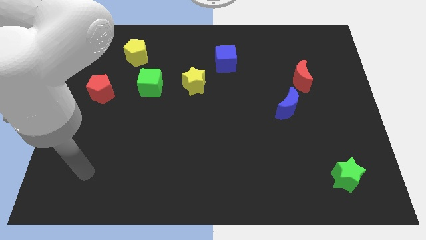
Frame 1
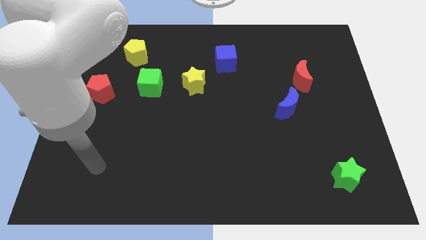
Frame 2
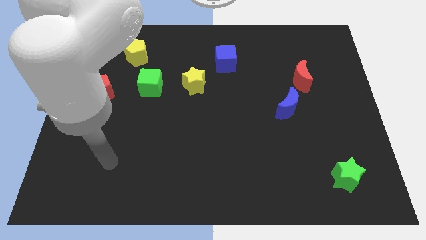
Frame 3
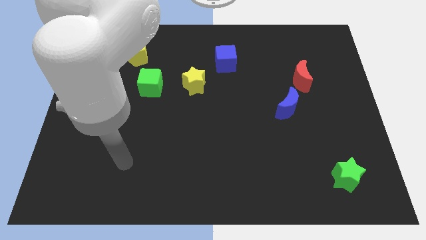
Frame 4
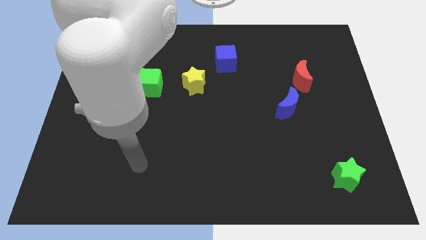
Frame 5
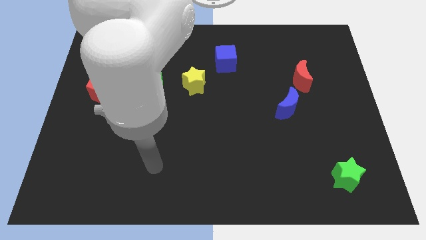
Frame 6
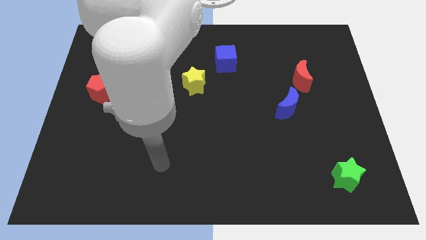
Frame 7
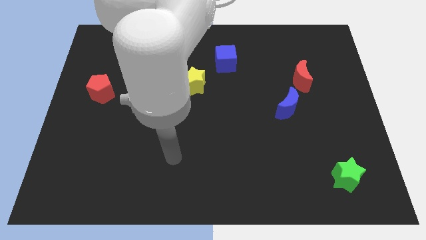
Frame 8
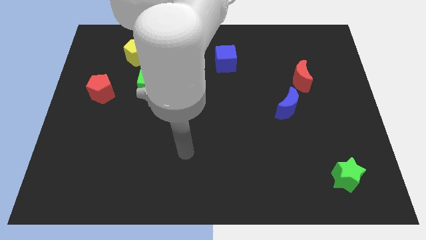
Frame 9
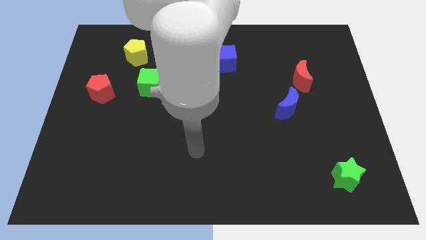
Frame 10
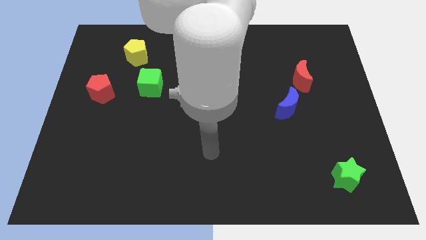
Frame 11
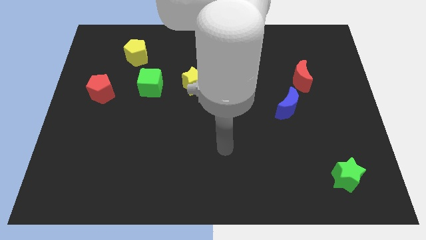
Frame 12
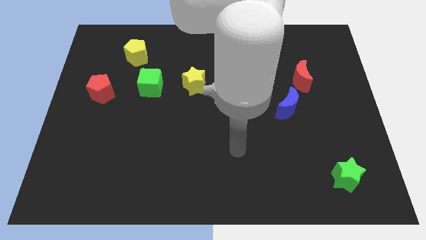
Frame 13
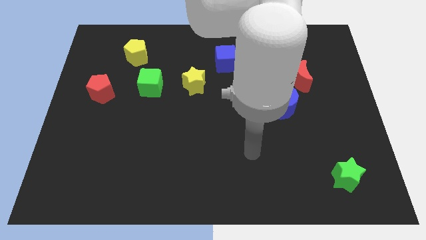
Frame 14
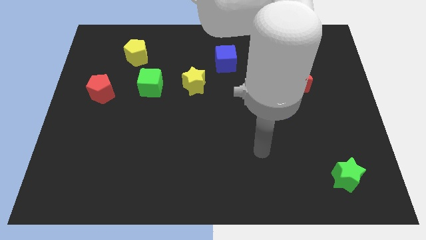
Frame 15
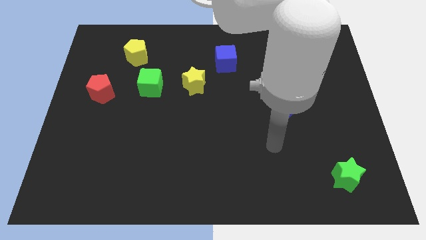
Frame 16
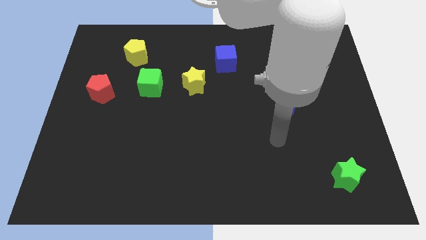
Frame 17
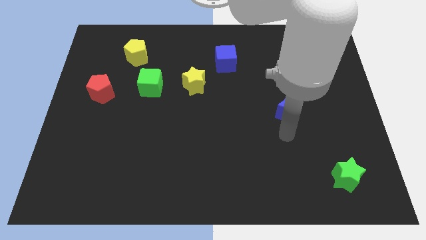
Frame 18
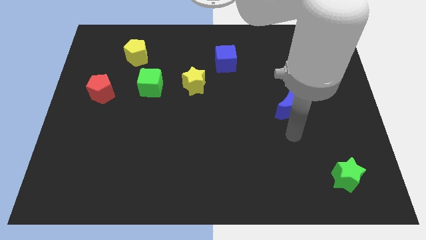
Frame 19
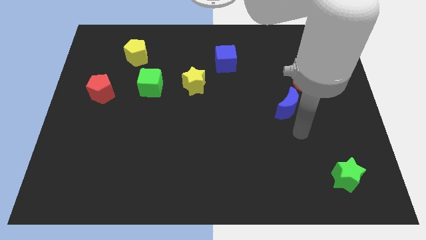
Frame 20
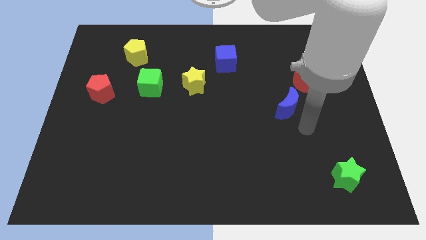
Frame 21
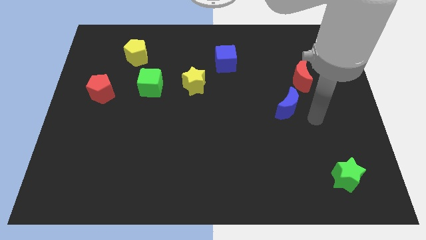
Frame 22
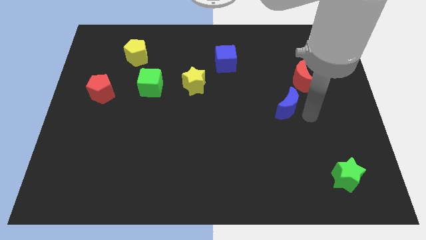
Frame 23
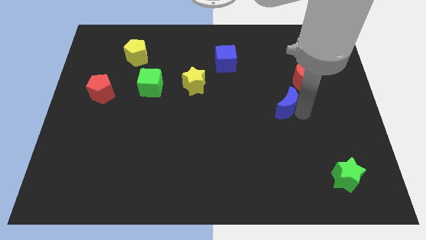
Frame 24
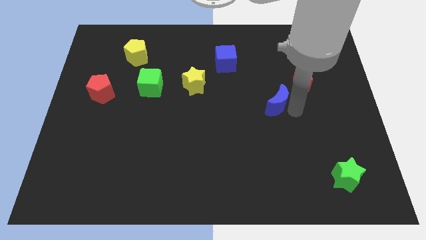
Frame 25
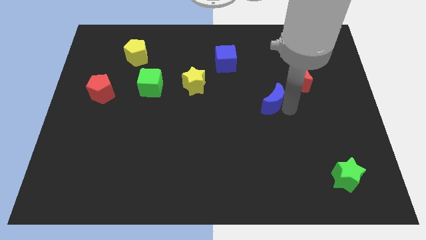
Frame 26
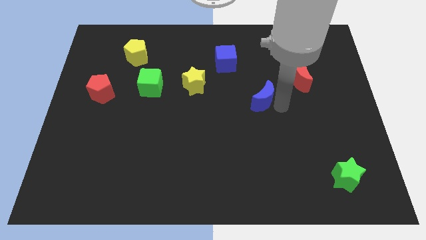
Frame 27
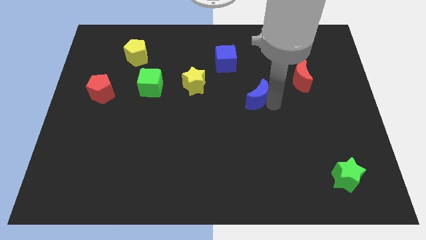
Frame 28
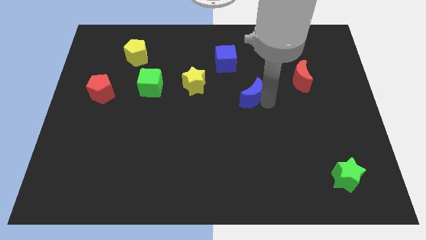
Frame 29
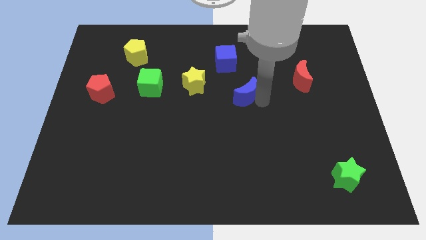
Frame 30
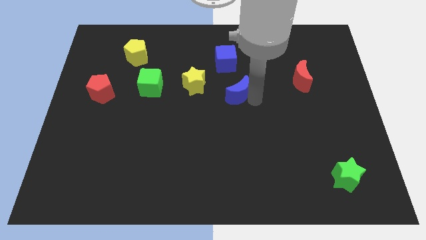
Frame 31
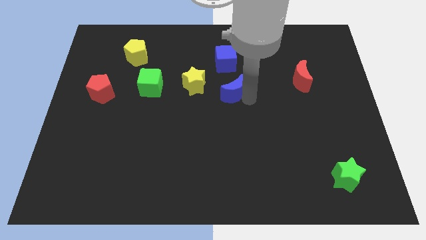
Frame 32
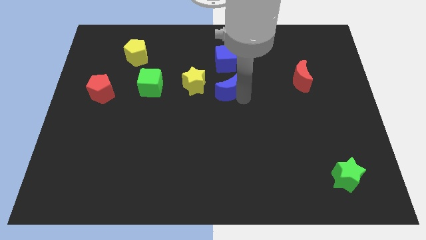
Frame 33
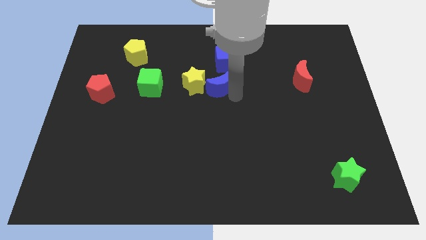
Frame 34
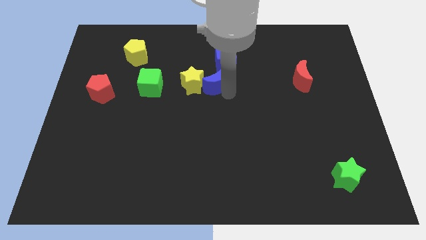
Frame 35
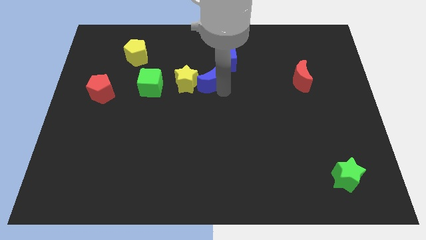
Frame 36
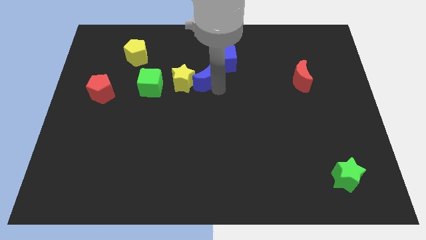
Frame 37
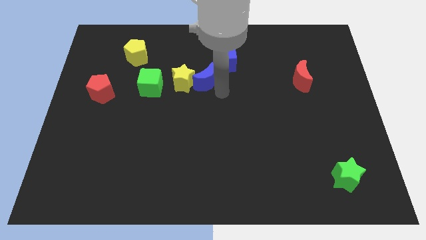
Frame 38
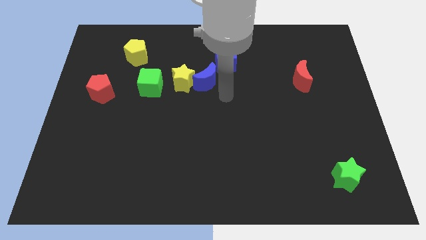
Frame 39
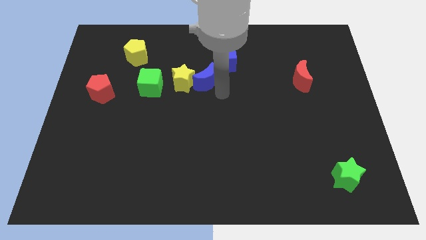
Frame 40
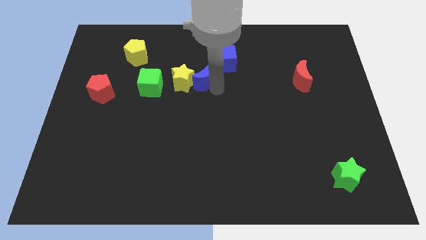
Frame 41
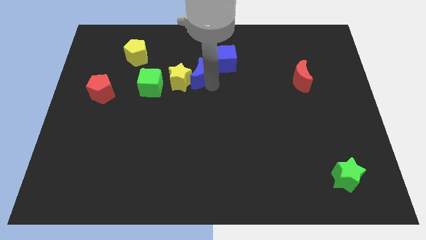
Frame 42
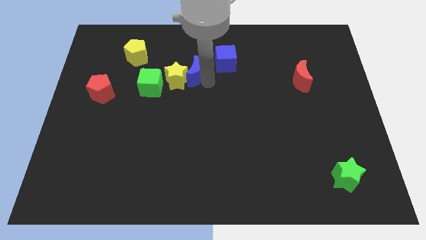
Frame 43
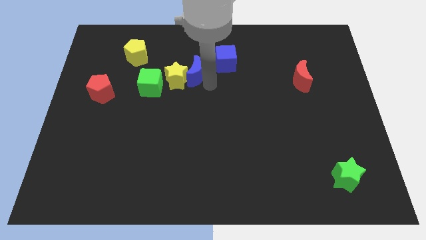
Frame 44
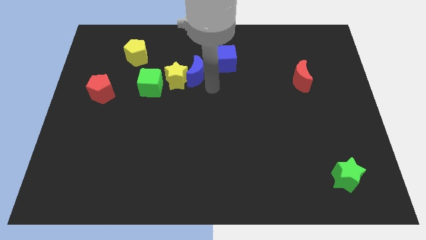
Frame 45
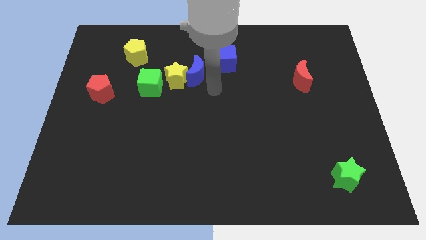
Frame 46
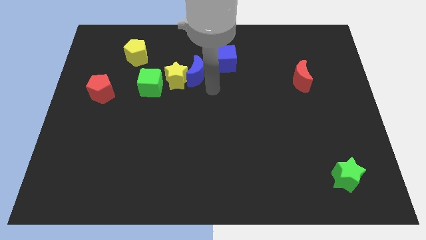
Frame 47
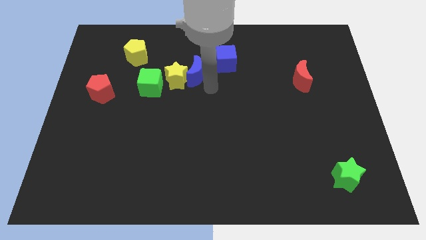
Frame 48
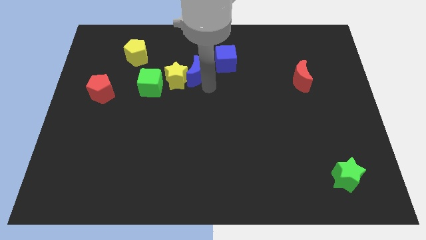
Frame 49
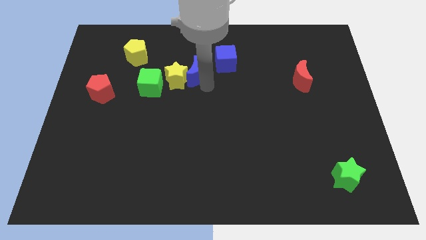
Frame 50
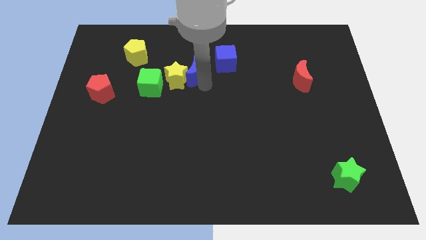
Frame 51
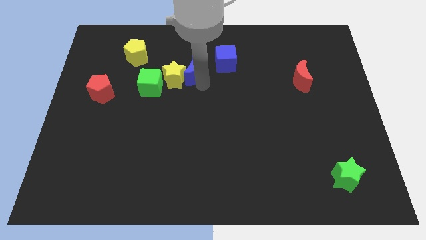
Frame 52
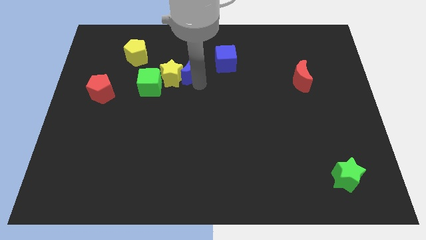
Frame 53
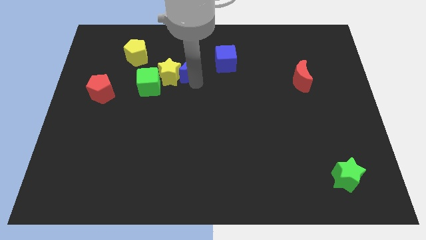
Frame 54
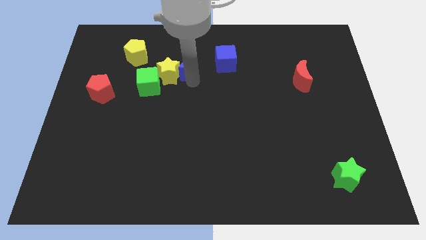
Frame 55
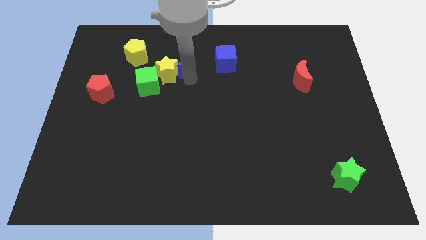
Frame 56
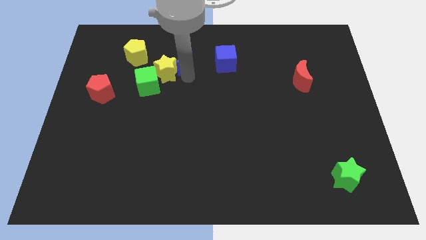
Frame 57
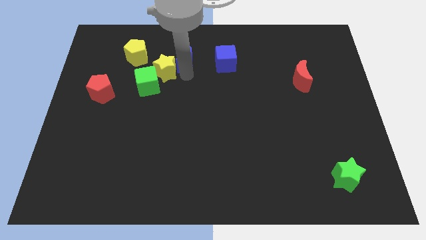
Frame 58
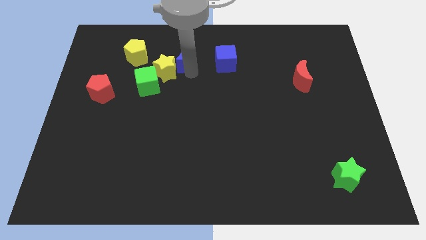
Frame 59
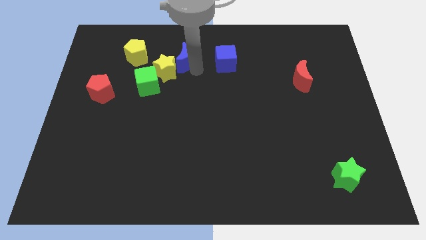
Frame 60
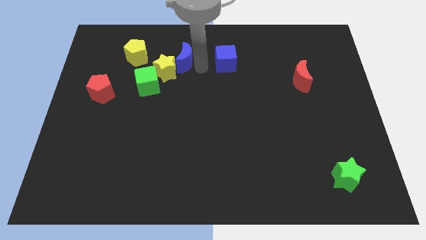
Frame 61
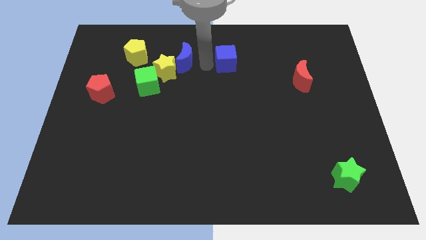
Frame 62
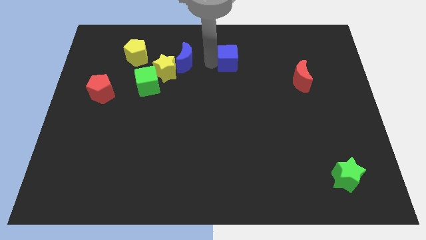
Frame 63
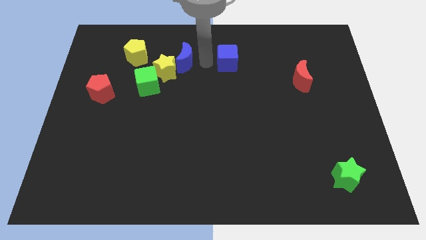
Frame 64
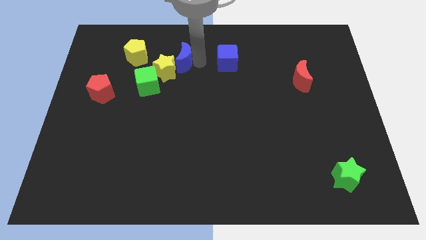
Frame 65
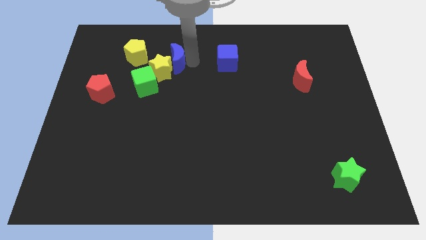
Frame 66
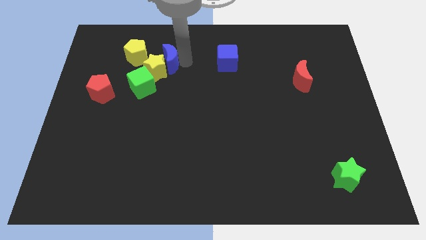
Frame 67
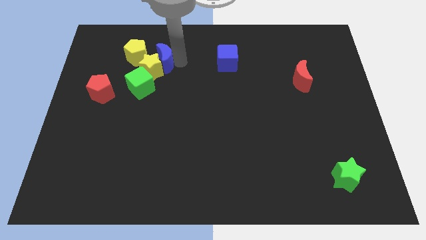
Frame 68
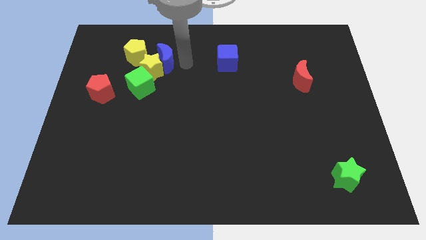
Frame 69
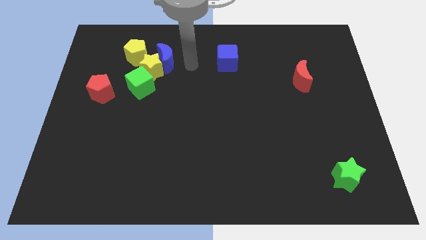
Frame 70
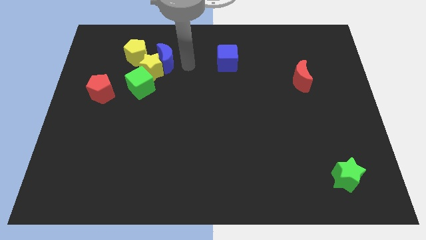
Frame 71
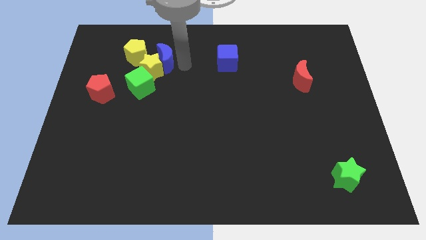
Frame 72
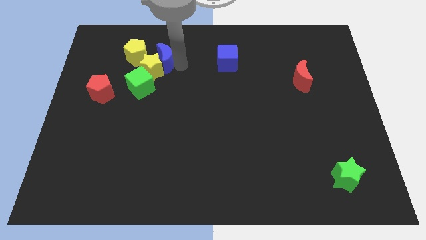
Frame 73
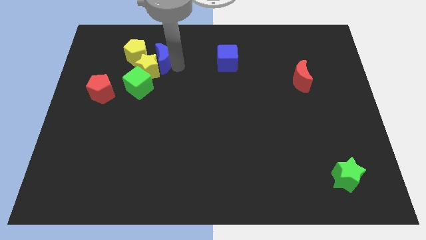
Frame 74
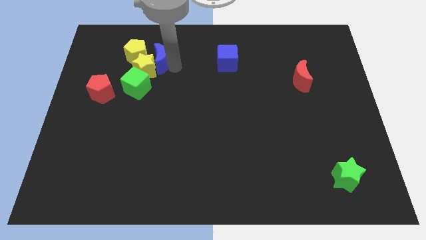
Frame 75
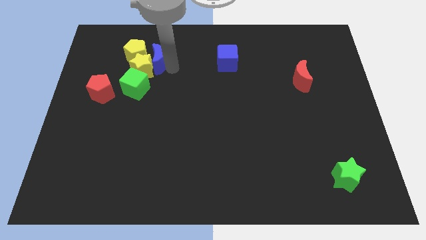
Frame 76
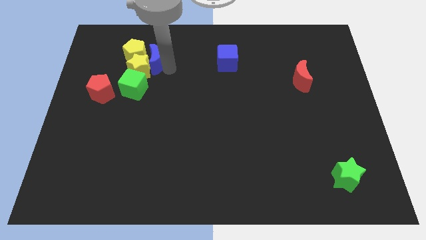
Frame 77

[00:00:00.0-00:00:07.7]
put the blue moon towards the yellow pentagon
